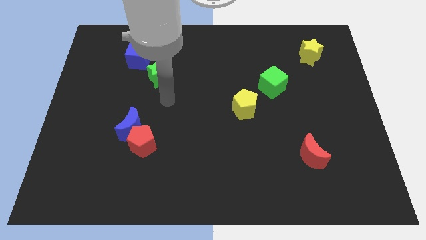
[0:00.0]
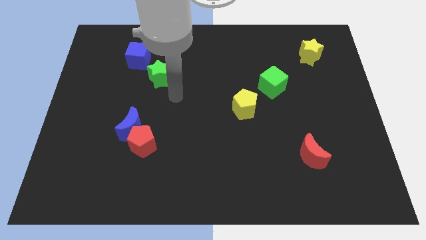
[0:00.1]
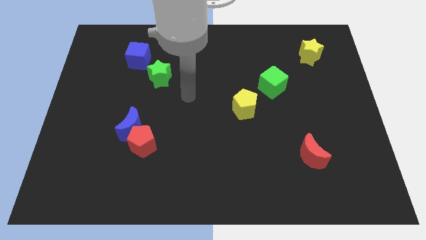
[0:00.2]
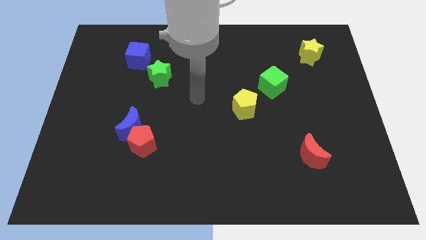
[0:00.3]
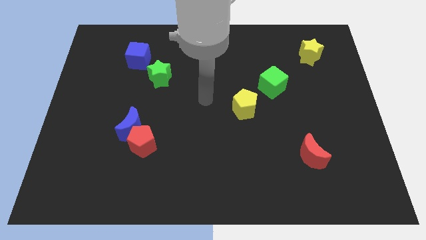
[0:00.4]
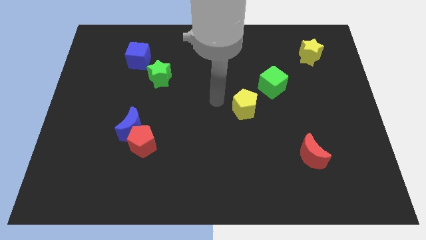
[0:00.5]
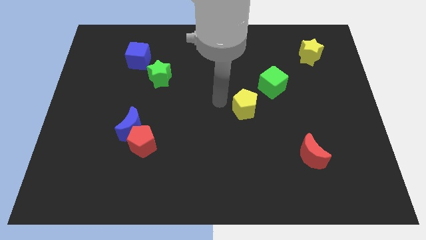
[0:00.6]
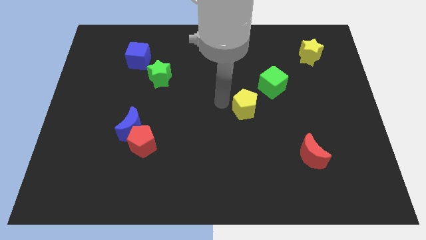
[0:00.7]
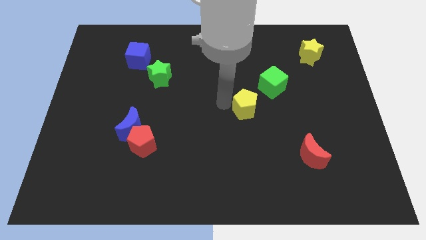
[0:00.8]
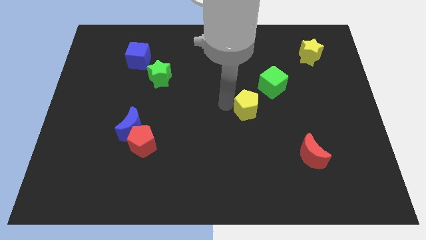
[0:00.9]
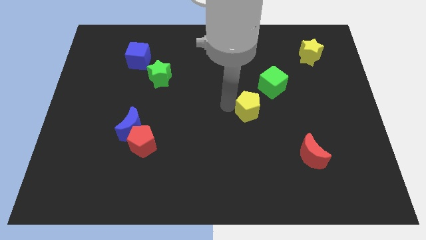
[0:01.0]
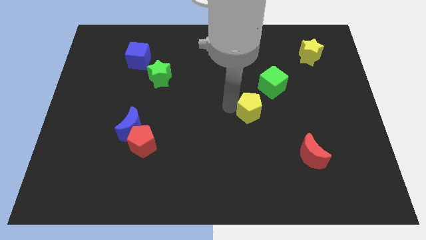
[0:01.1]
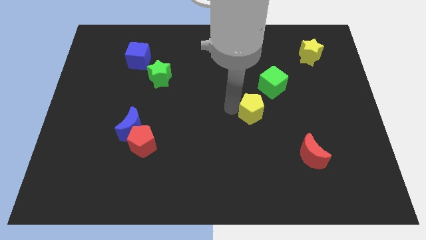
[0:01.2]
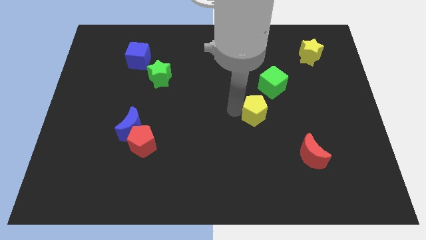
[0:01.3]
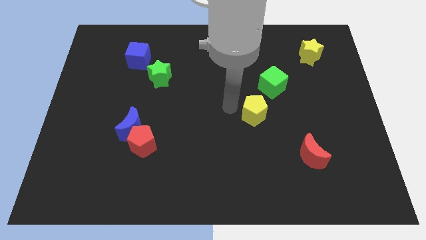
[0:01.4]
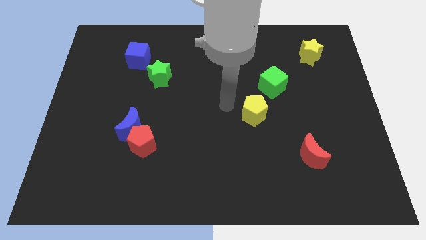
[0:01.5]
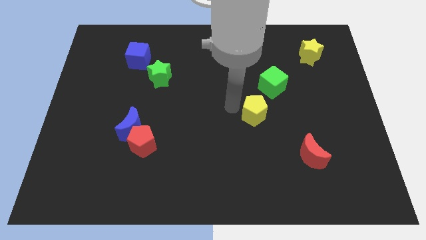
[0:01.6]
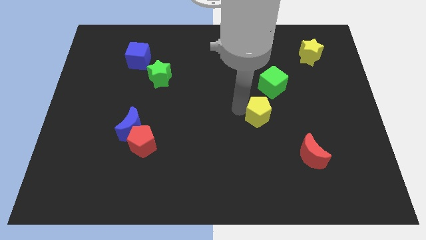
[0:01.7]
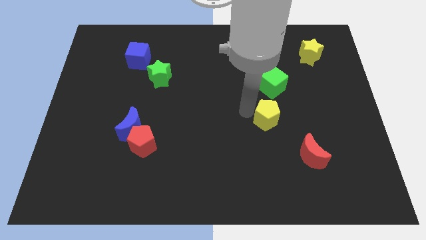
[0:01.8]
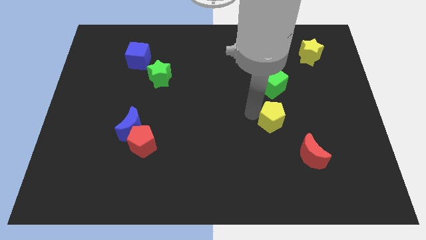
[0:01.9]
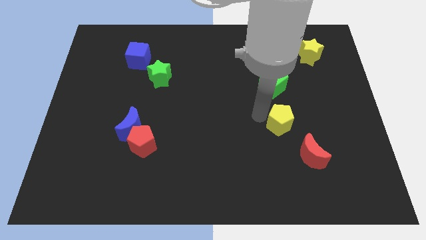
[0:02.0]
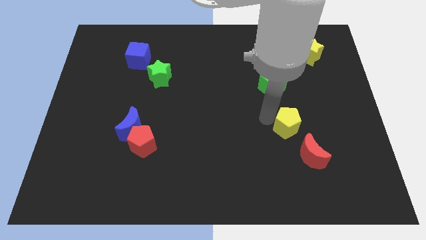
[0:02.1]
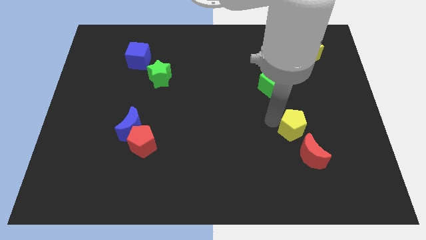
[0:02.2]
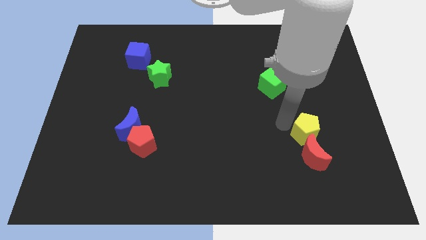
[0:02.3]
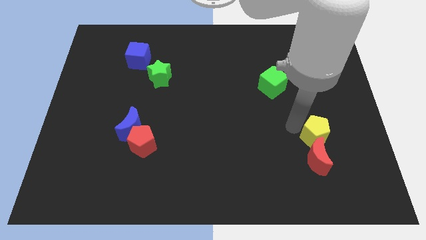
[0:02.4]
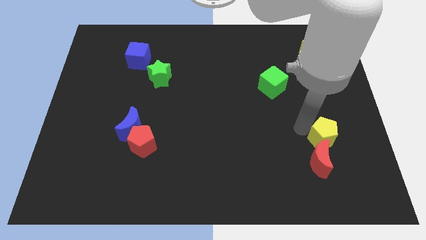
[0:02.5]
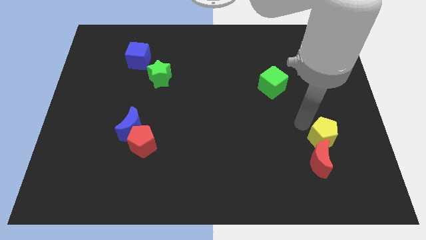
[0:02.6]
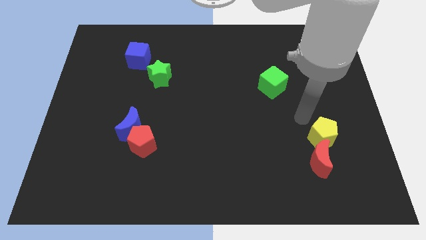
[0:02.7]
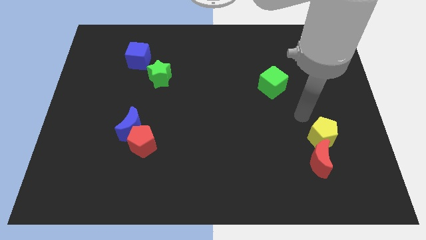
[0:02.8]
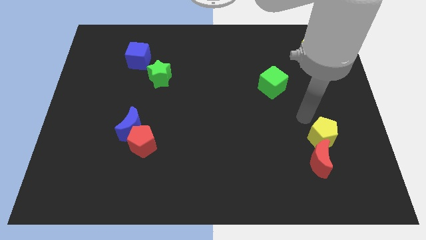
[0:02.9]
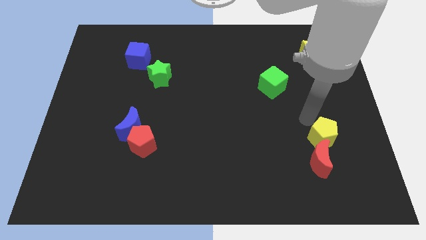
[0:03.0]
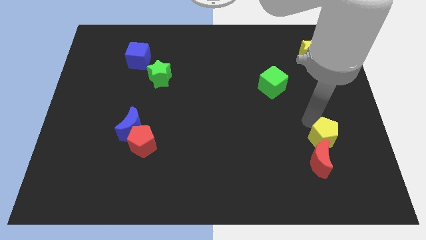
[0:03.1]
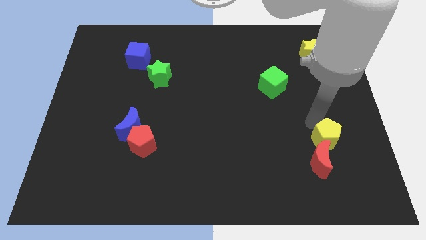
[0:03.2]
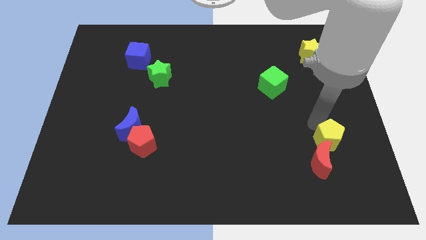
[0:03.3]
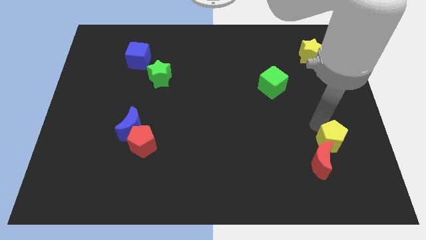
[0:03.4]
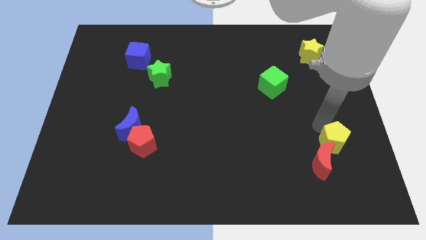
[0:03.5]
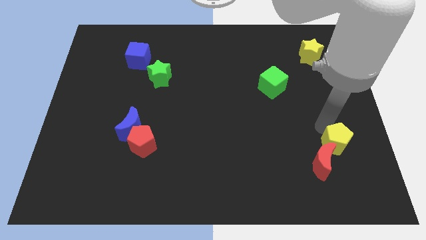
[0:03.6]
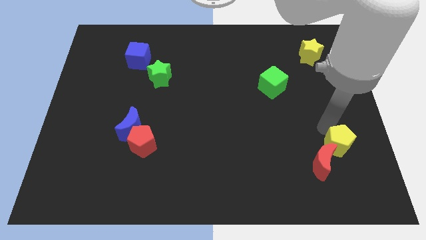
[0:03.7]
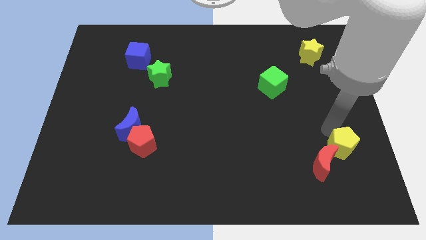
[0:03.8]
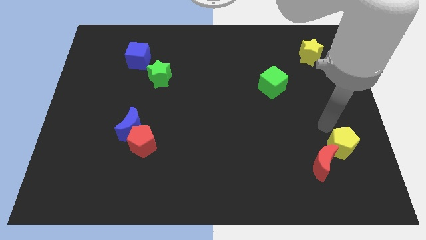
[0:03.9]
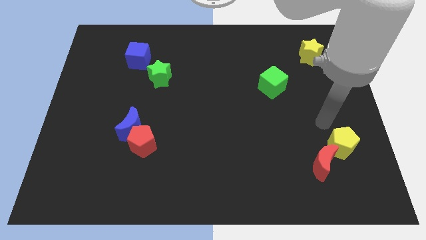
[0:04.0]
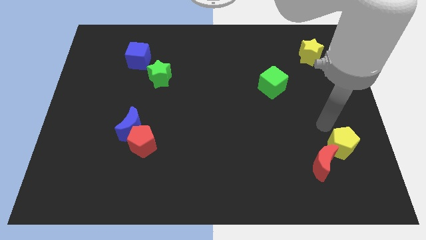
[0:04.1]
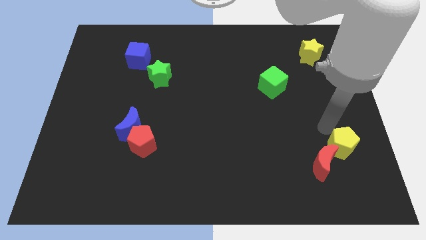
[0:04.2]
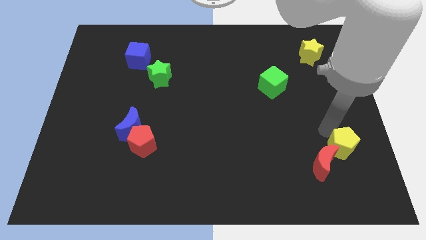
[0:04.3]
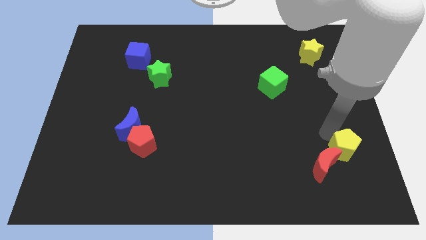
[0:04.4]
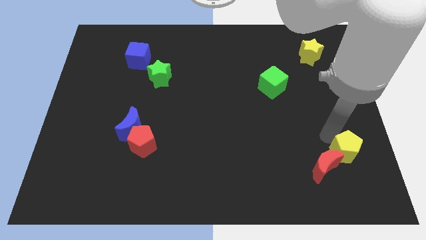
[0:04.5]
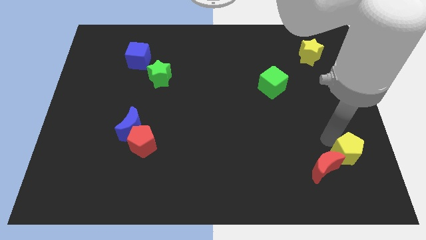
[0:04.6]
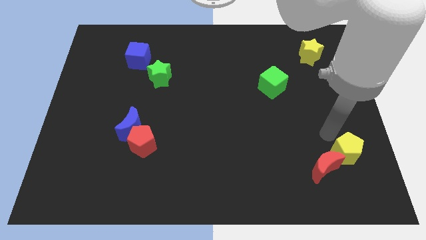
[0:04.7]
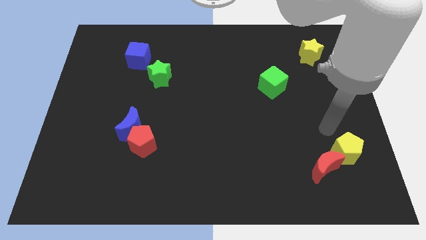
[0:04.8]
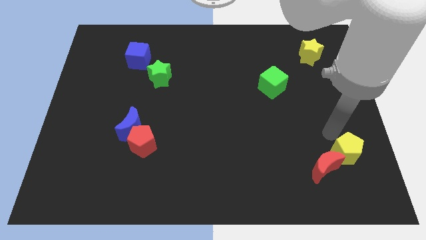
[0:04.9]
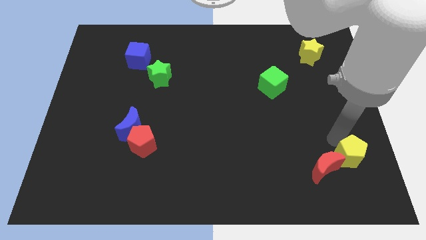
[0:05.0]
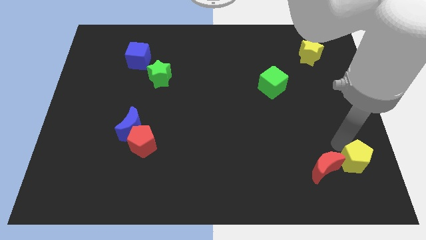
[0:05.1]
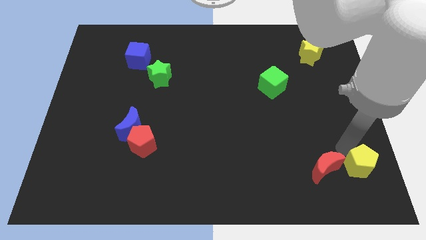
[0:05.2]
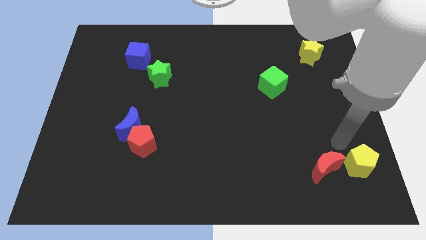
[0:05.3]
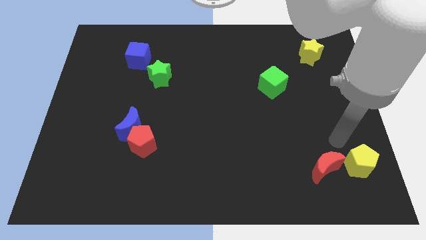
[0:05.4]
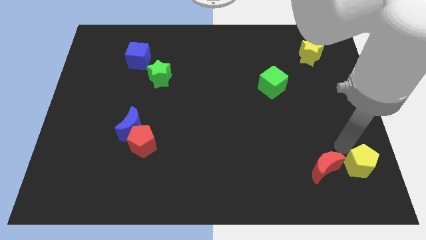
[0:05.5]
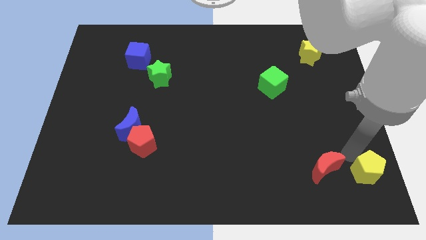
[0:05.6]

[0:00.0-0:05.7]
push the yellow pentagon to the lower right corner

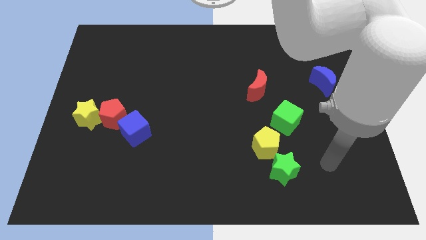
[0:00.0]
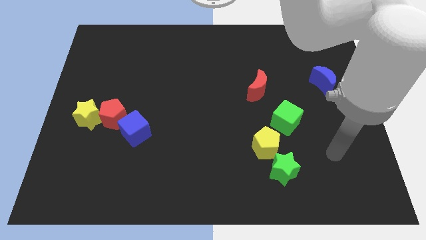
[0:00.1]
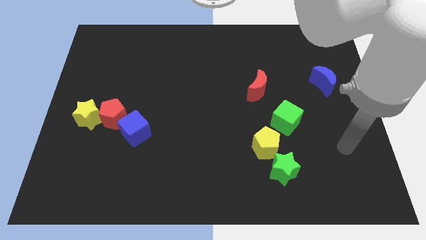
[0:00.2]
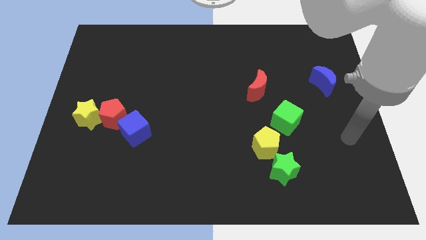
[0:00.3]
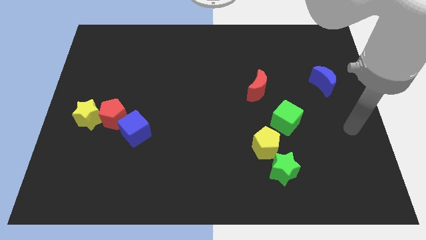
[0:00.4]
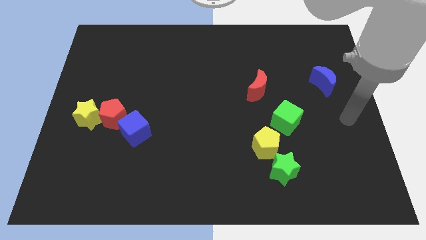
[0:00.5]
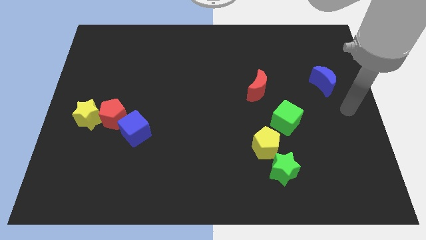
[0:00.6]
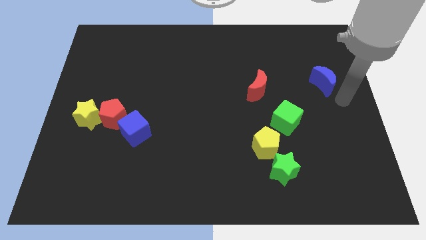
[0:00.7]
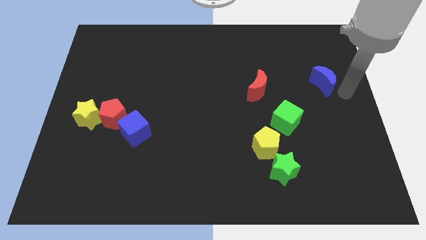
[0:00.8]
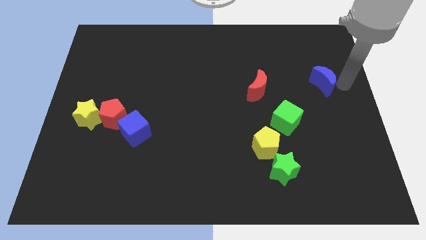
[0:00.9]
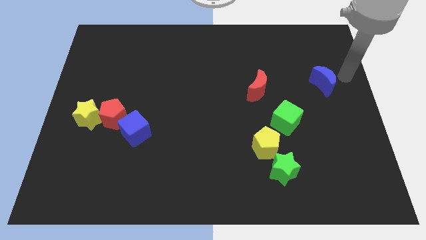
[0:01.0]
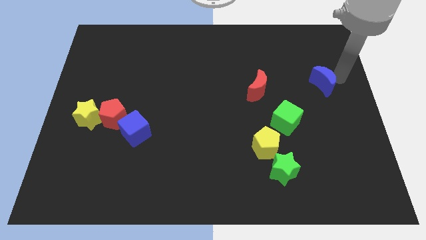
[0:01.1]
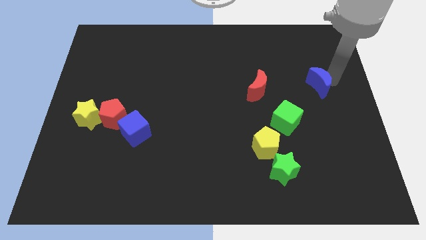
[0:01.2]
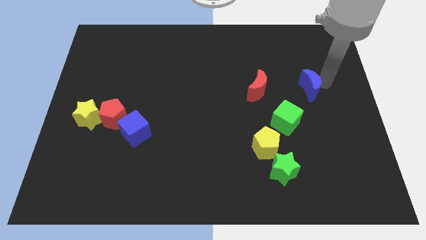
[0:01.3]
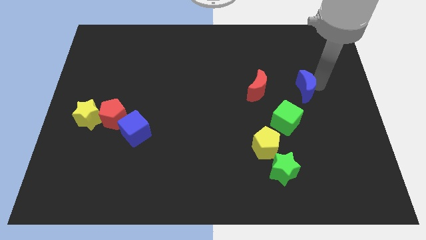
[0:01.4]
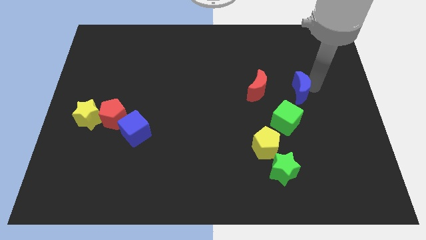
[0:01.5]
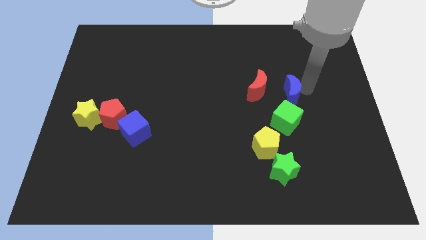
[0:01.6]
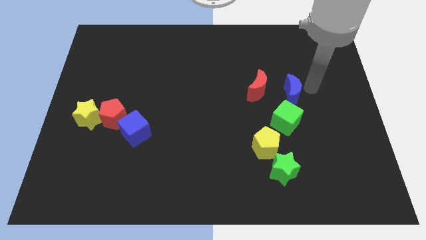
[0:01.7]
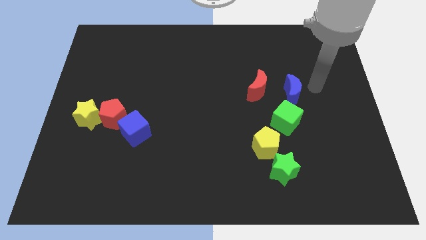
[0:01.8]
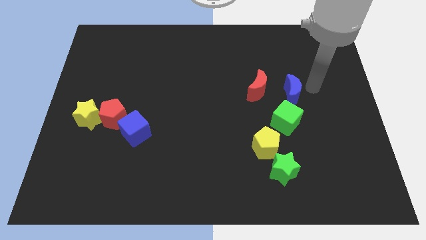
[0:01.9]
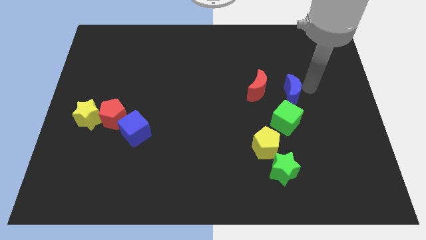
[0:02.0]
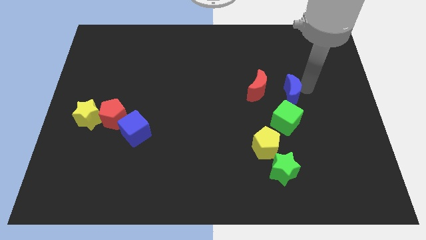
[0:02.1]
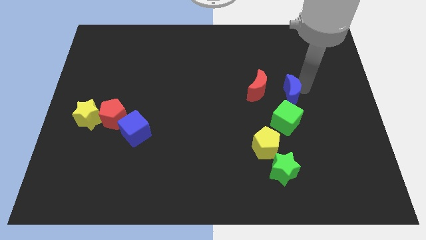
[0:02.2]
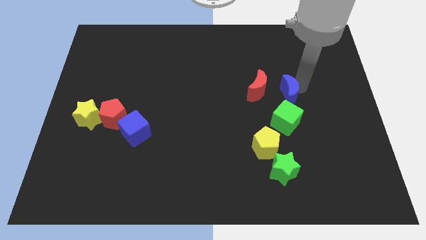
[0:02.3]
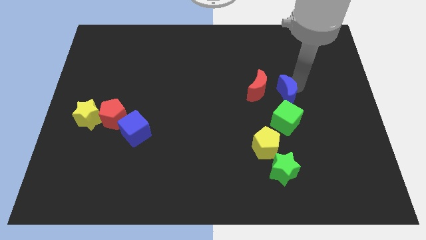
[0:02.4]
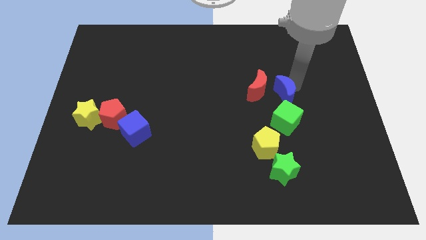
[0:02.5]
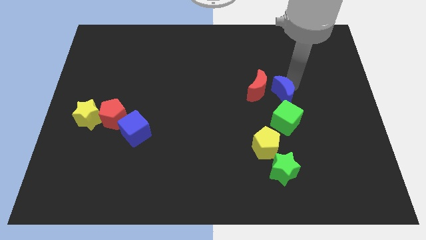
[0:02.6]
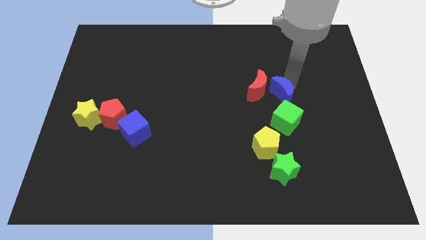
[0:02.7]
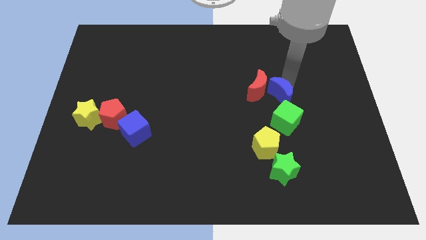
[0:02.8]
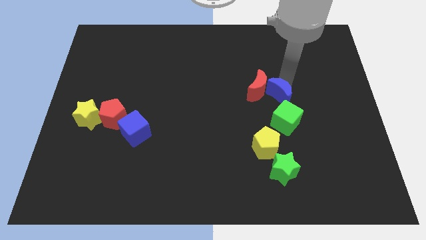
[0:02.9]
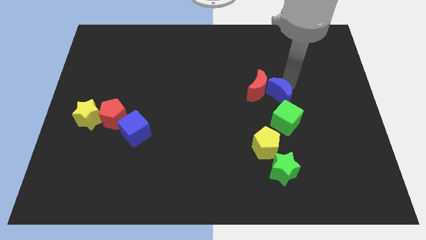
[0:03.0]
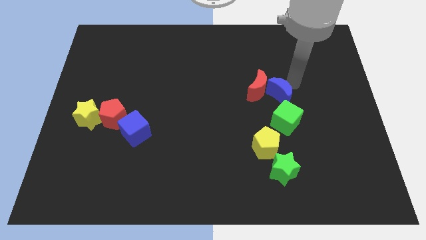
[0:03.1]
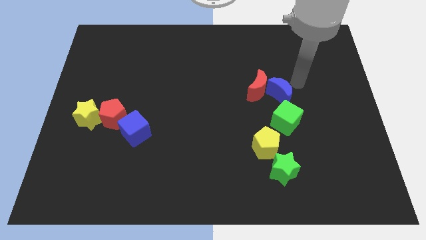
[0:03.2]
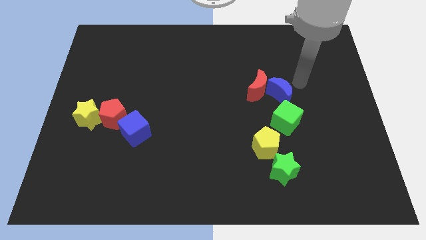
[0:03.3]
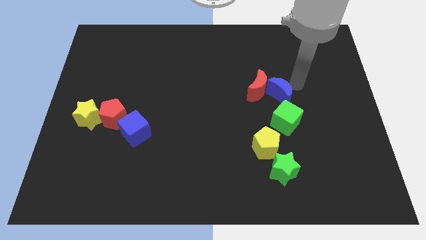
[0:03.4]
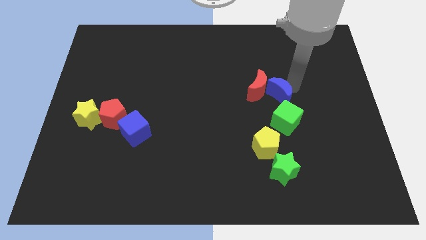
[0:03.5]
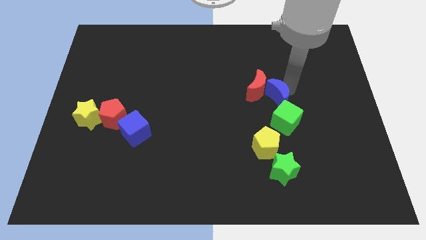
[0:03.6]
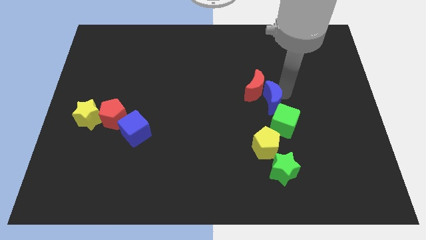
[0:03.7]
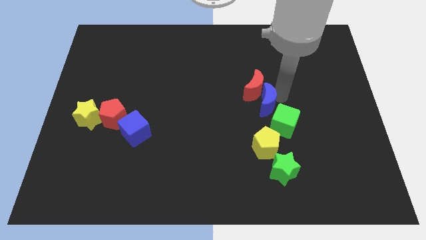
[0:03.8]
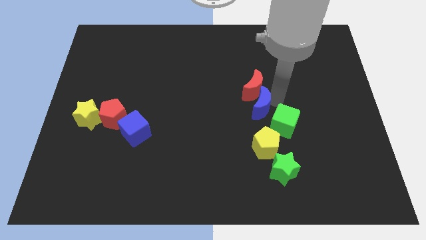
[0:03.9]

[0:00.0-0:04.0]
slide the blue moon to the center
